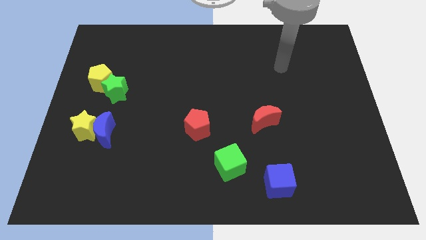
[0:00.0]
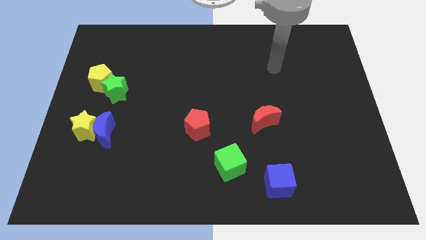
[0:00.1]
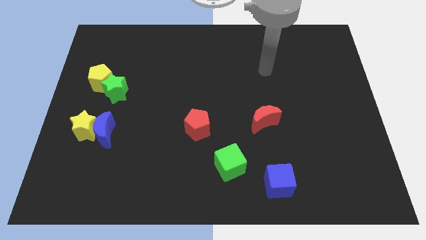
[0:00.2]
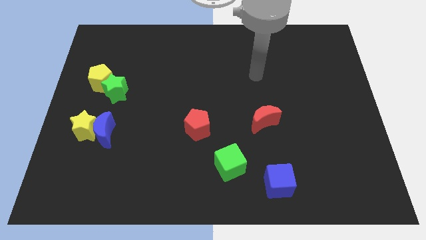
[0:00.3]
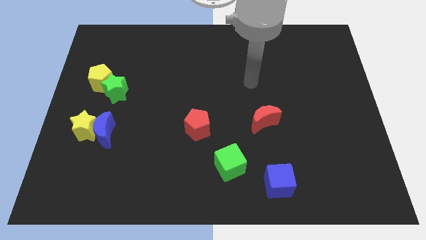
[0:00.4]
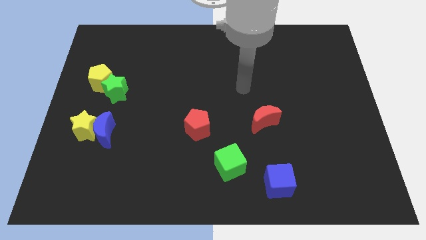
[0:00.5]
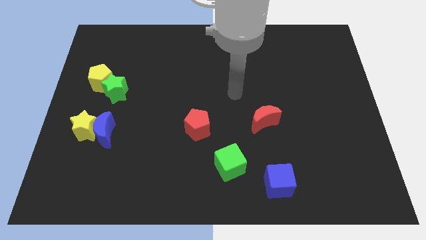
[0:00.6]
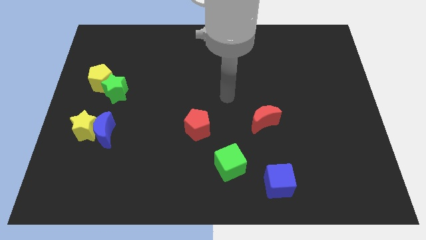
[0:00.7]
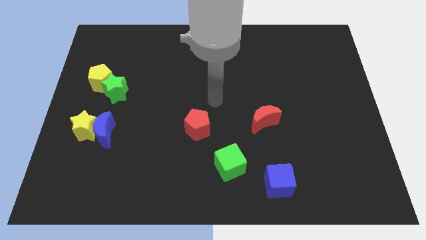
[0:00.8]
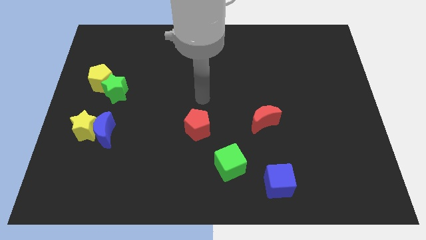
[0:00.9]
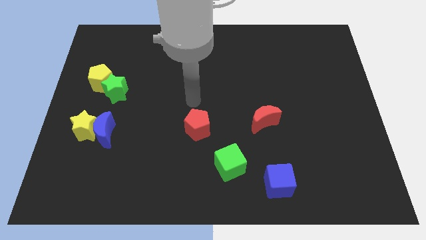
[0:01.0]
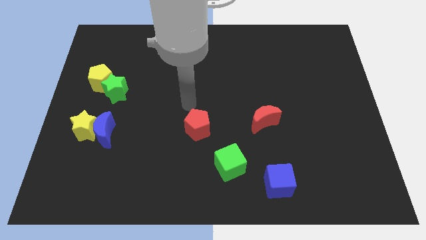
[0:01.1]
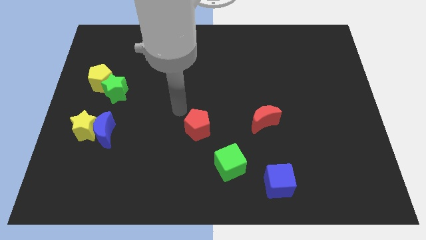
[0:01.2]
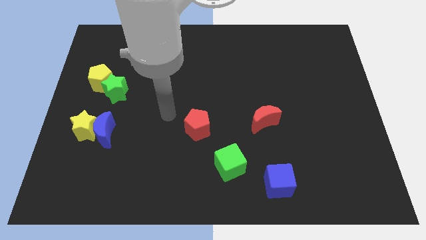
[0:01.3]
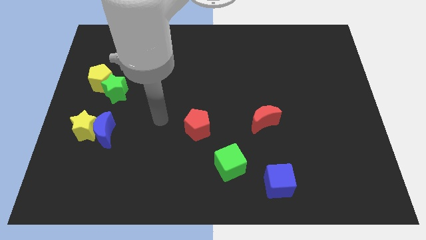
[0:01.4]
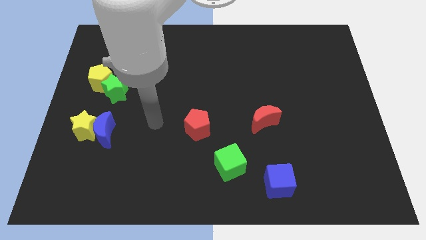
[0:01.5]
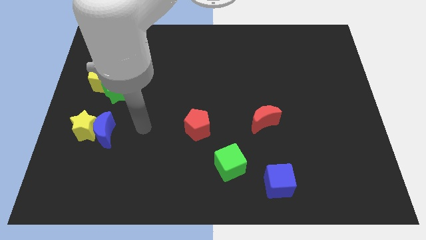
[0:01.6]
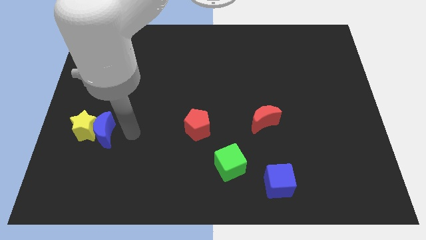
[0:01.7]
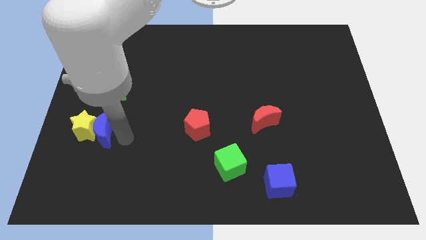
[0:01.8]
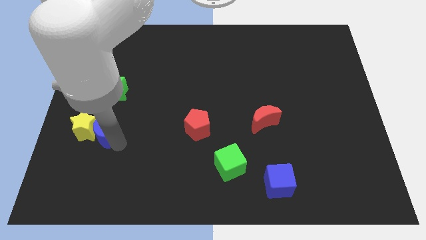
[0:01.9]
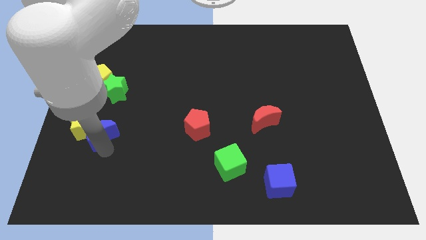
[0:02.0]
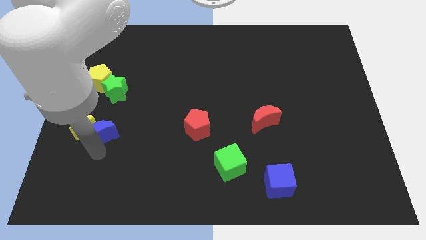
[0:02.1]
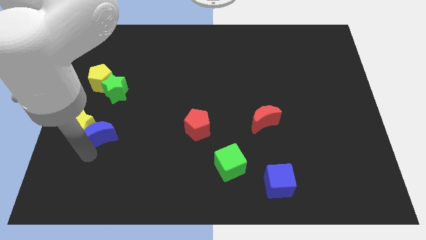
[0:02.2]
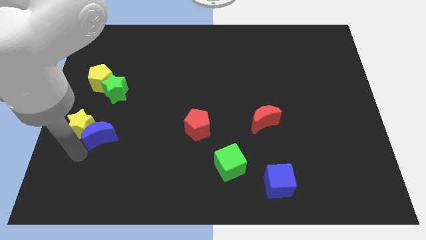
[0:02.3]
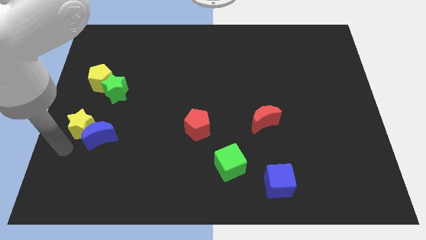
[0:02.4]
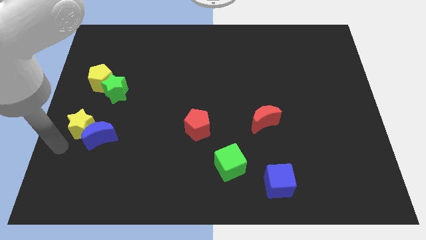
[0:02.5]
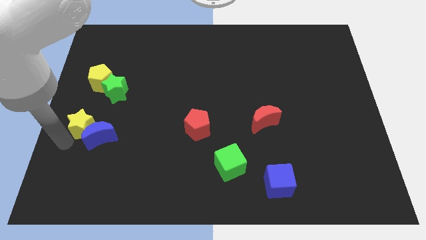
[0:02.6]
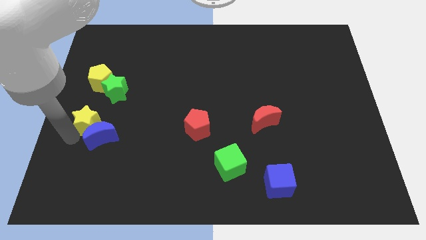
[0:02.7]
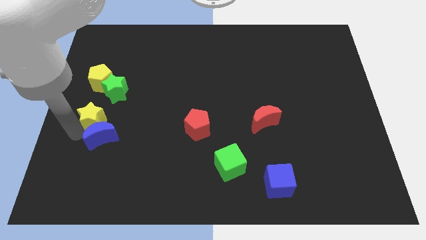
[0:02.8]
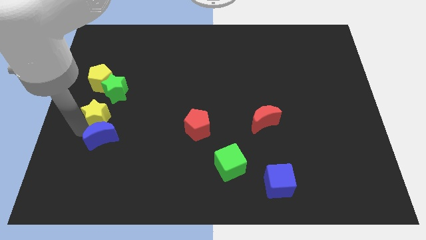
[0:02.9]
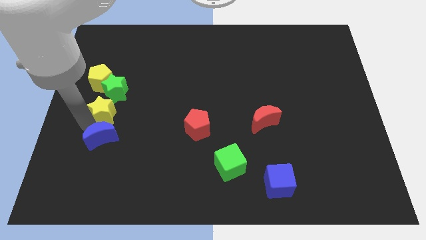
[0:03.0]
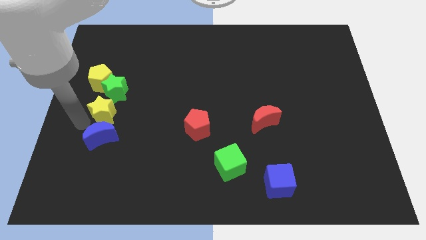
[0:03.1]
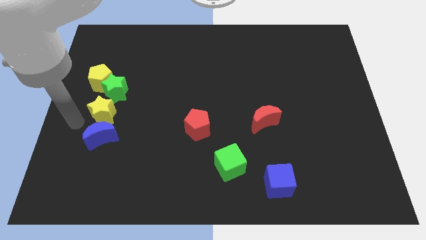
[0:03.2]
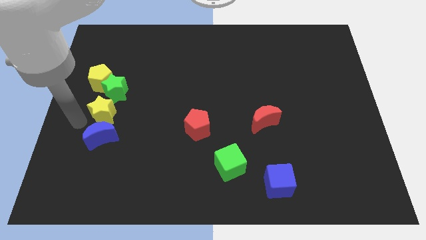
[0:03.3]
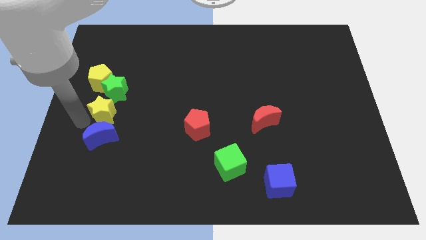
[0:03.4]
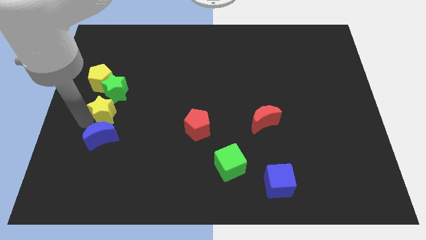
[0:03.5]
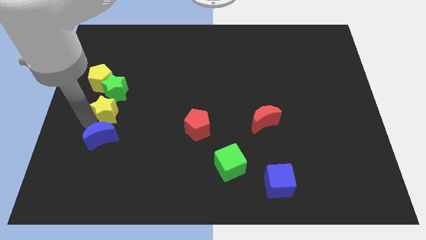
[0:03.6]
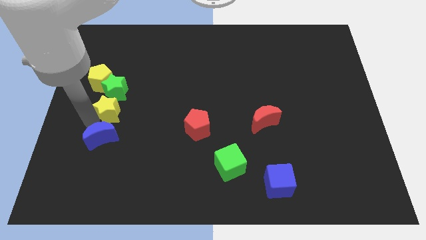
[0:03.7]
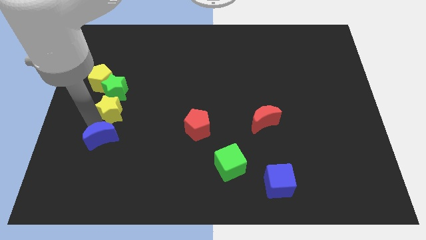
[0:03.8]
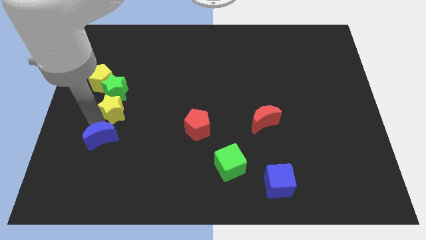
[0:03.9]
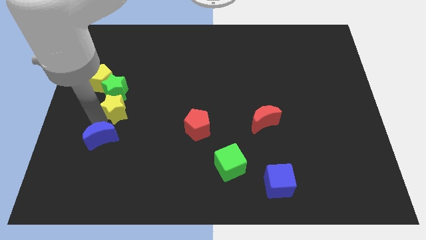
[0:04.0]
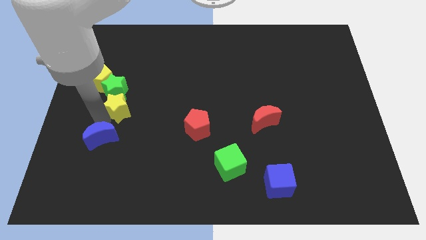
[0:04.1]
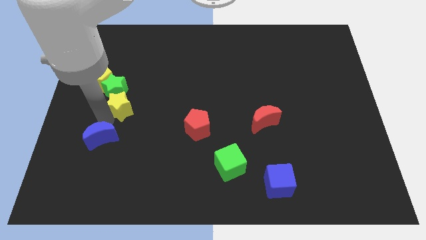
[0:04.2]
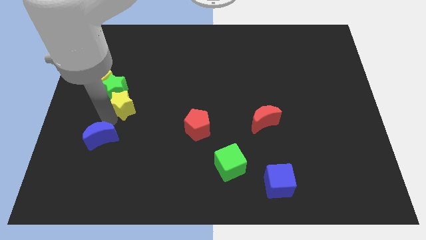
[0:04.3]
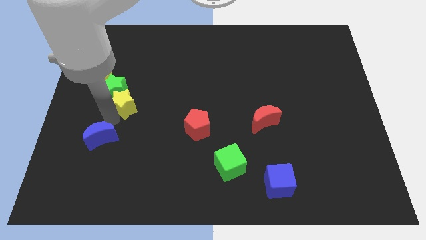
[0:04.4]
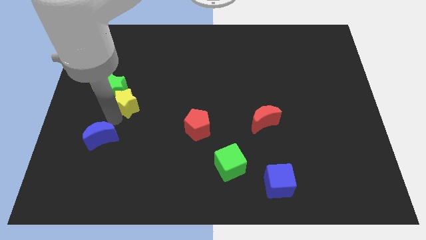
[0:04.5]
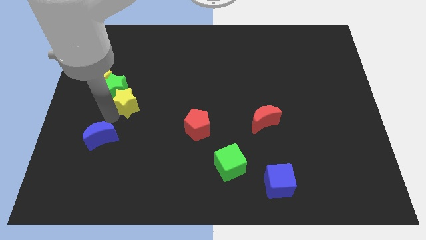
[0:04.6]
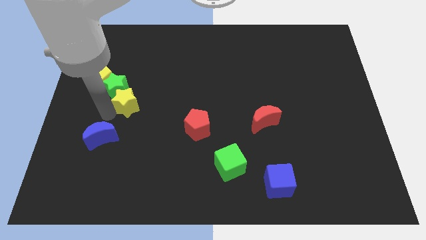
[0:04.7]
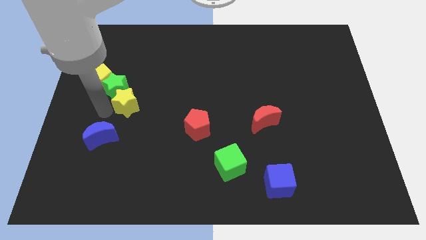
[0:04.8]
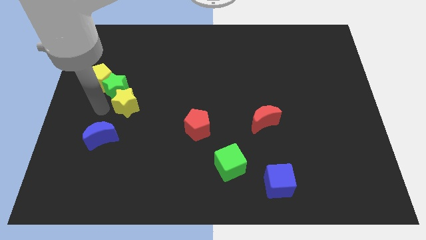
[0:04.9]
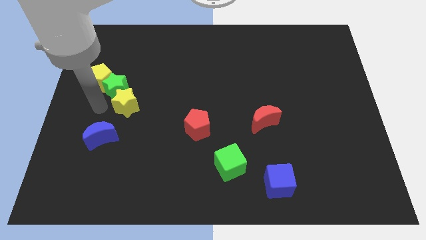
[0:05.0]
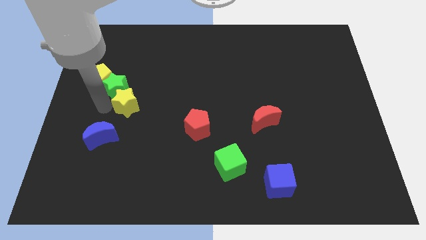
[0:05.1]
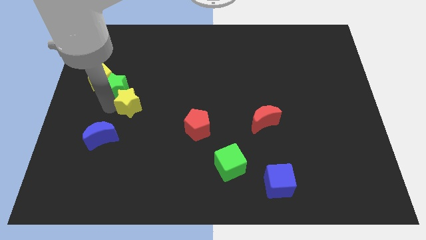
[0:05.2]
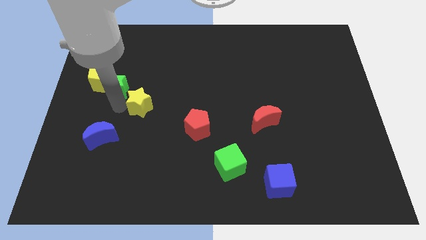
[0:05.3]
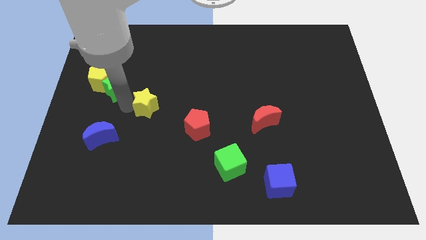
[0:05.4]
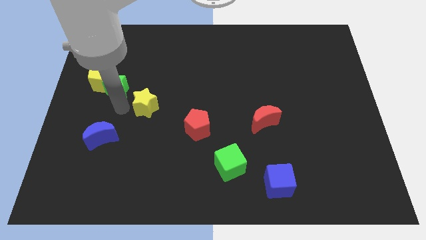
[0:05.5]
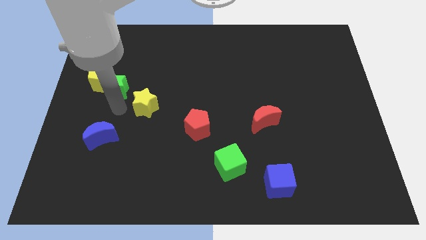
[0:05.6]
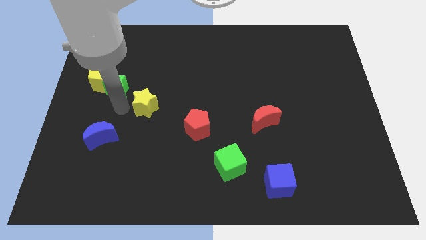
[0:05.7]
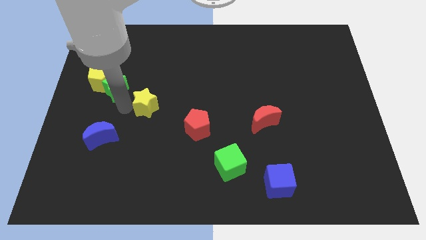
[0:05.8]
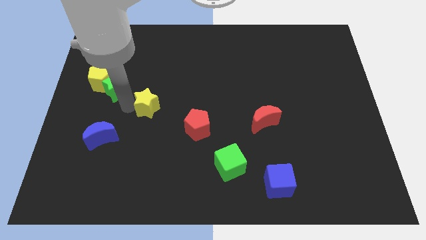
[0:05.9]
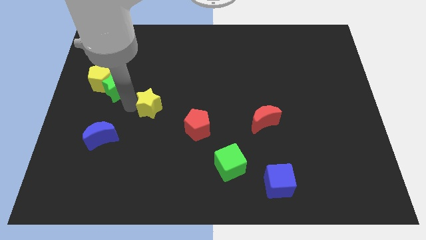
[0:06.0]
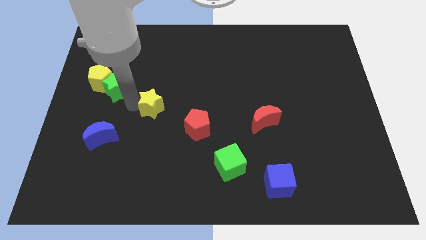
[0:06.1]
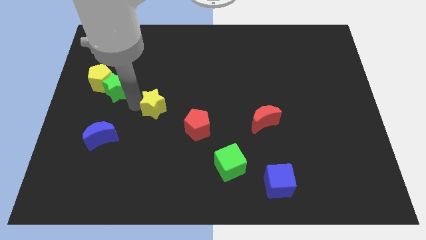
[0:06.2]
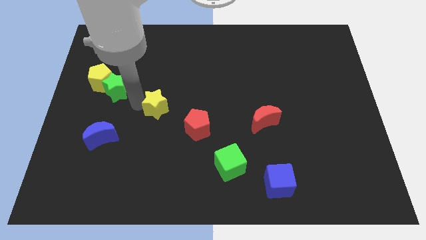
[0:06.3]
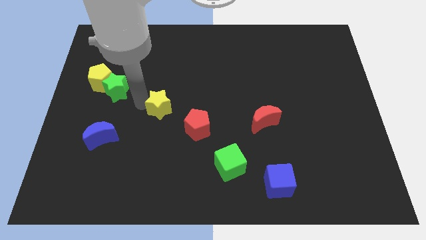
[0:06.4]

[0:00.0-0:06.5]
put the yellow star to the middle

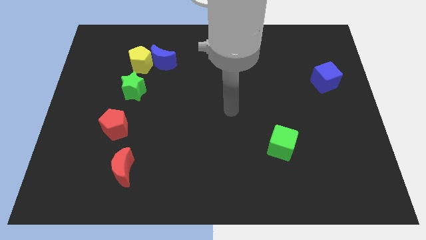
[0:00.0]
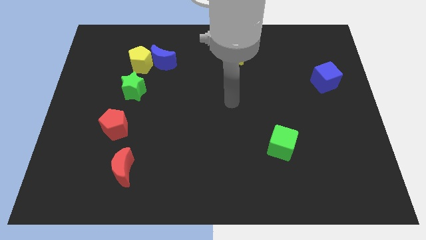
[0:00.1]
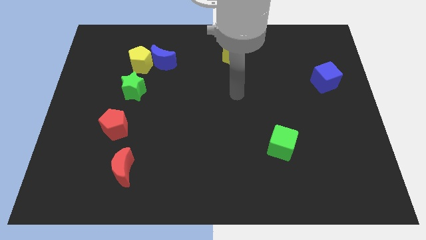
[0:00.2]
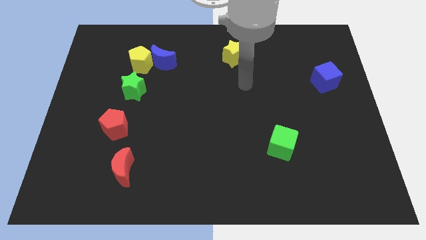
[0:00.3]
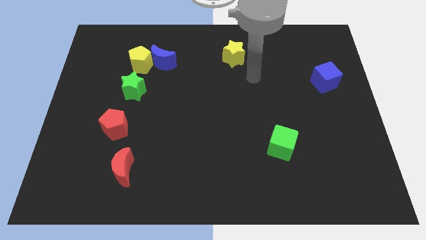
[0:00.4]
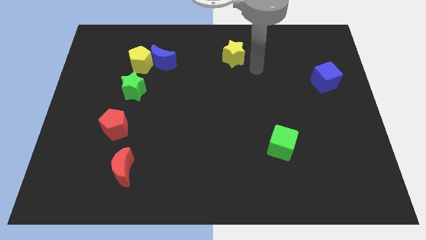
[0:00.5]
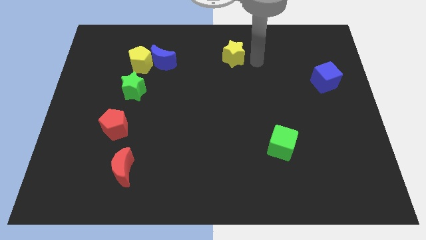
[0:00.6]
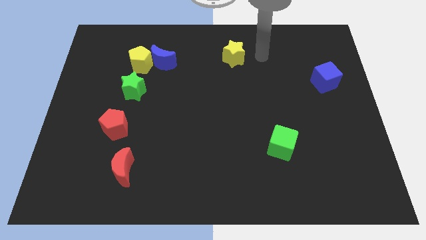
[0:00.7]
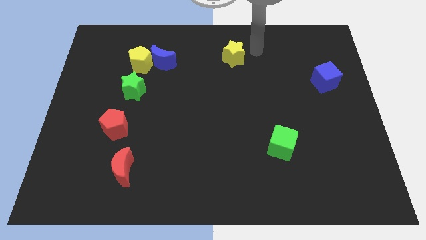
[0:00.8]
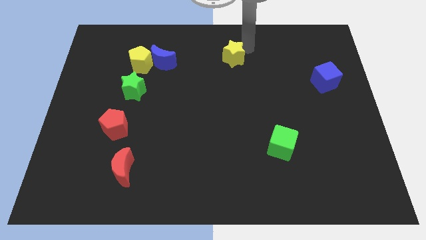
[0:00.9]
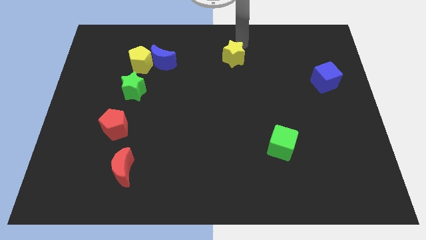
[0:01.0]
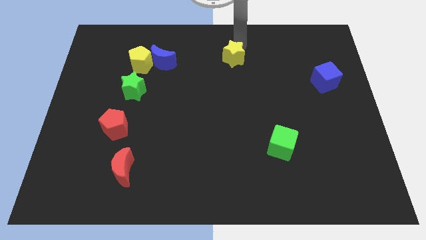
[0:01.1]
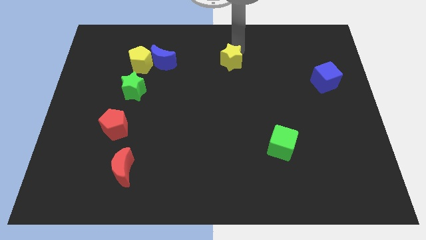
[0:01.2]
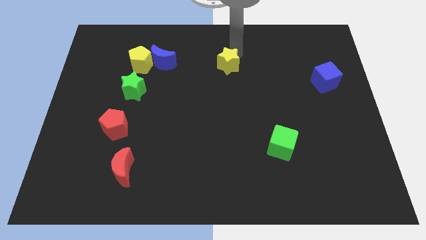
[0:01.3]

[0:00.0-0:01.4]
push the yellow star to the center of the board
